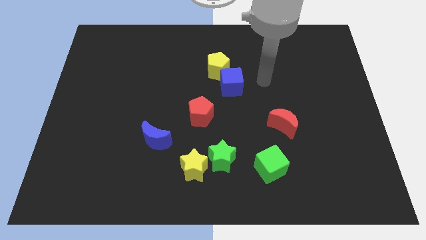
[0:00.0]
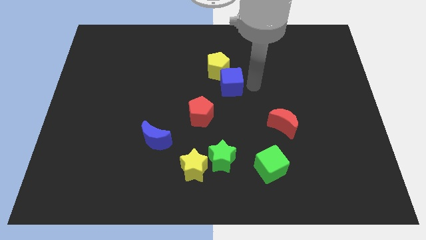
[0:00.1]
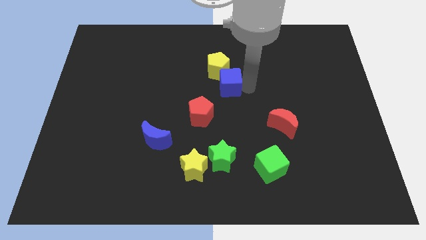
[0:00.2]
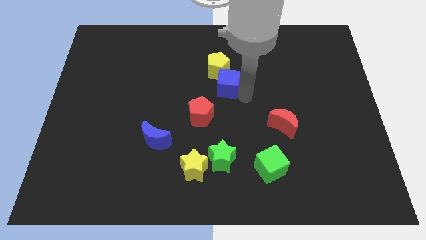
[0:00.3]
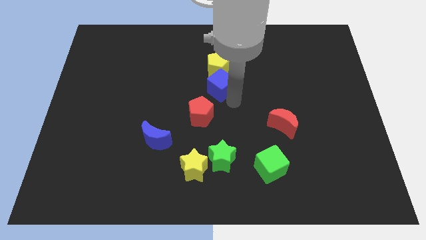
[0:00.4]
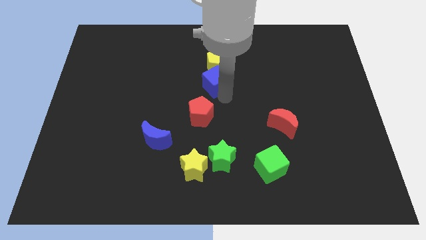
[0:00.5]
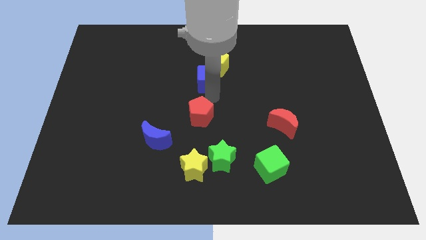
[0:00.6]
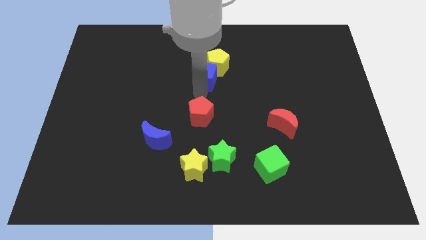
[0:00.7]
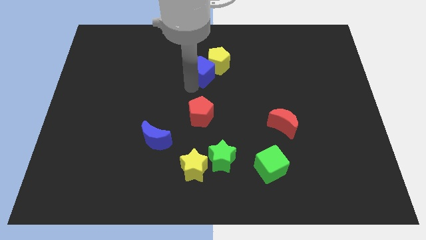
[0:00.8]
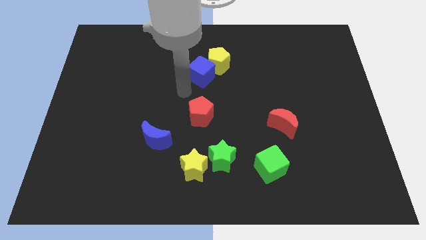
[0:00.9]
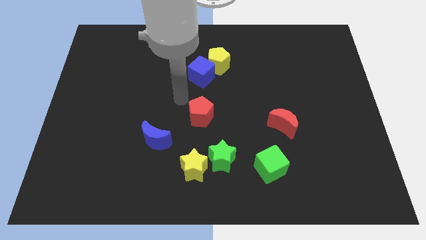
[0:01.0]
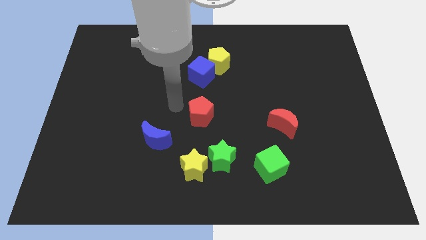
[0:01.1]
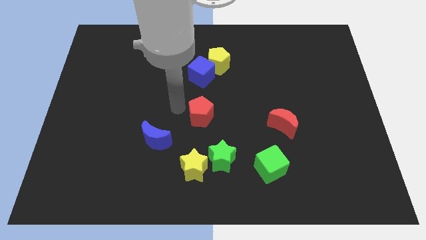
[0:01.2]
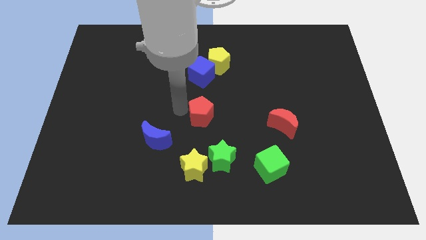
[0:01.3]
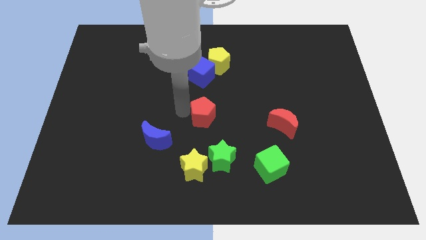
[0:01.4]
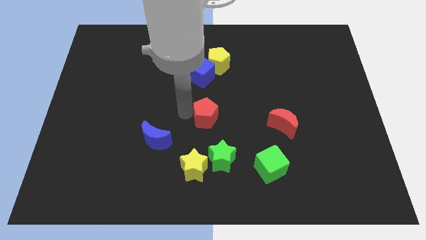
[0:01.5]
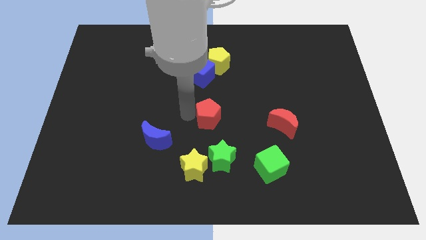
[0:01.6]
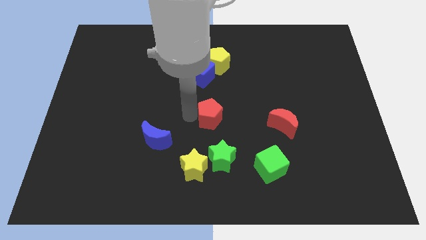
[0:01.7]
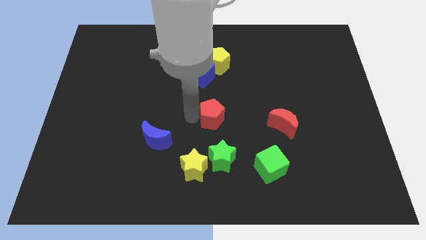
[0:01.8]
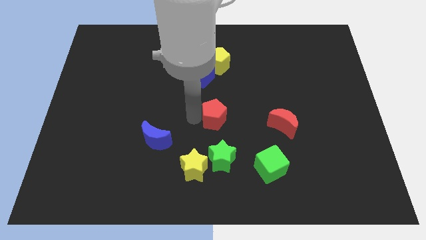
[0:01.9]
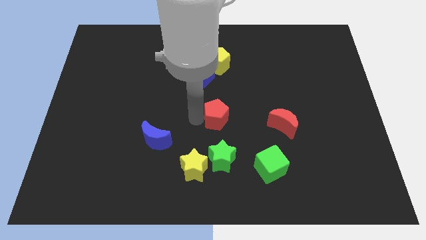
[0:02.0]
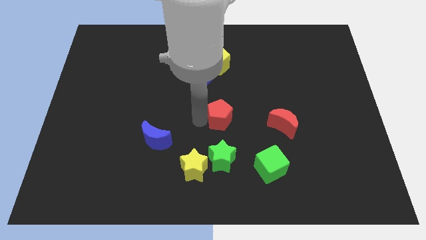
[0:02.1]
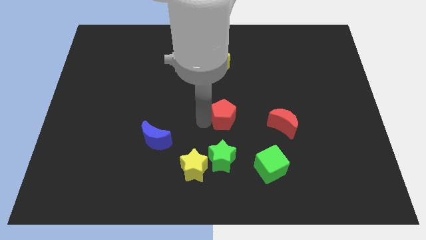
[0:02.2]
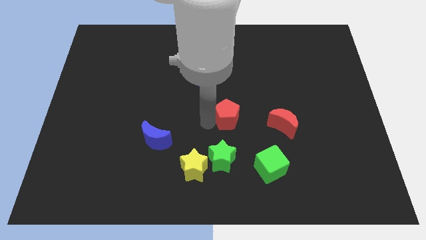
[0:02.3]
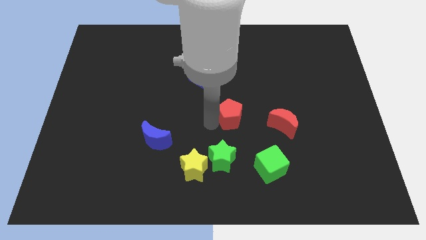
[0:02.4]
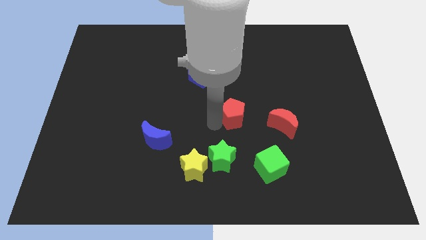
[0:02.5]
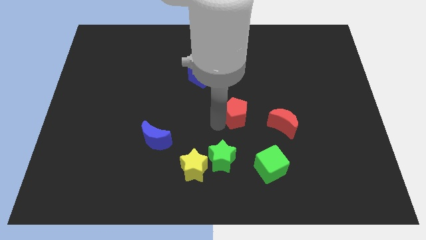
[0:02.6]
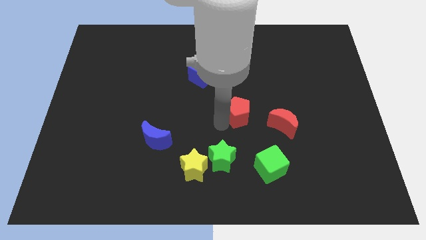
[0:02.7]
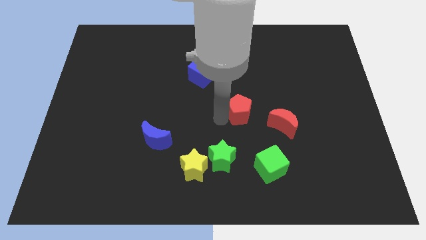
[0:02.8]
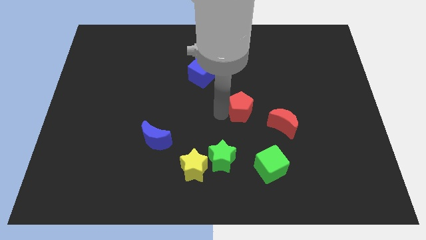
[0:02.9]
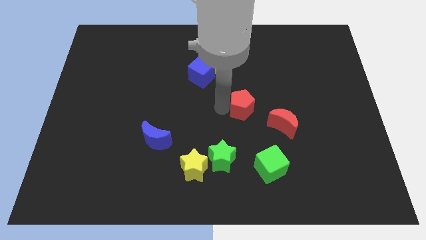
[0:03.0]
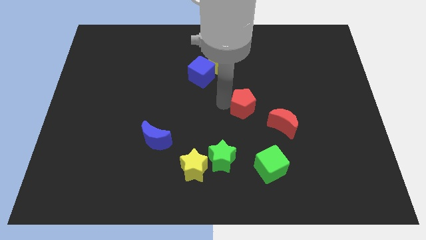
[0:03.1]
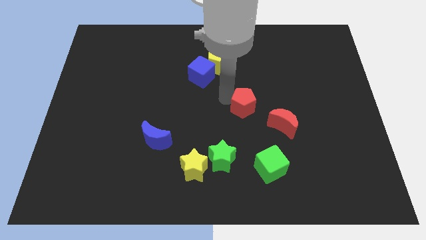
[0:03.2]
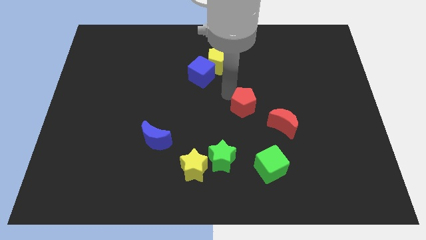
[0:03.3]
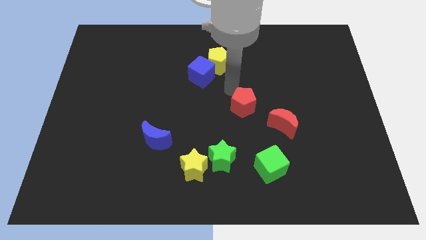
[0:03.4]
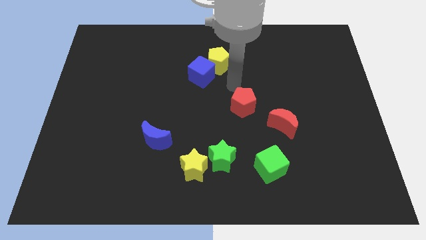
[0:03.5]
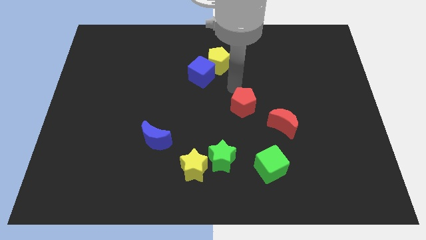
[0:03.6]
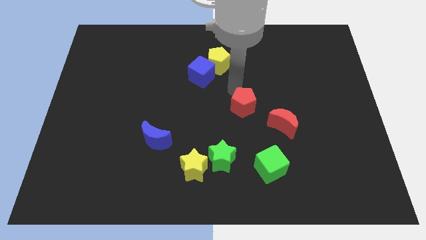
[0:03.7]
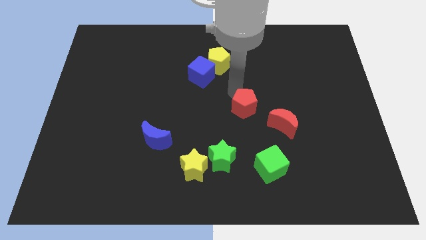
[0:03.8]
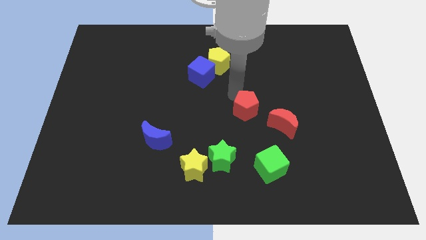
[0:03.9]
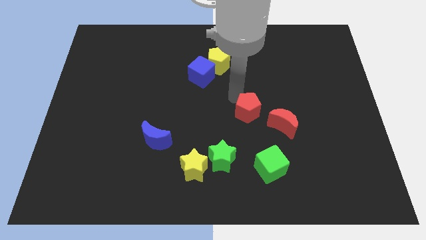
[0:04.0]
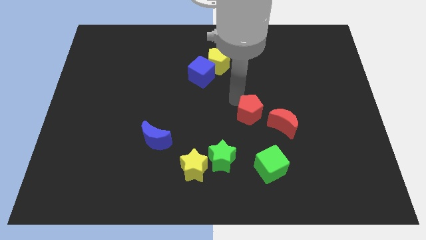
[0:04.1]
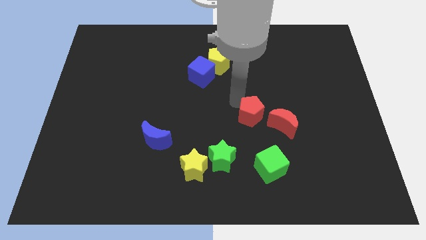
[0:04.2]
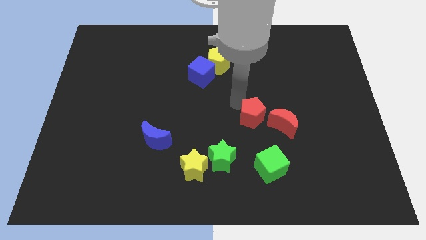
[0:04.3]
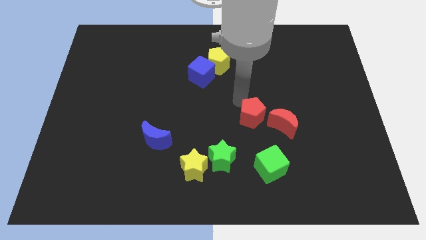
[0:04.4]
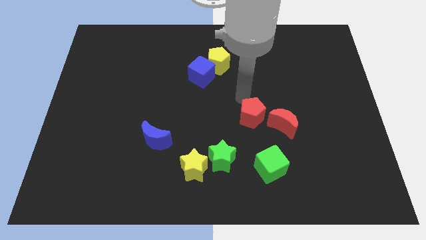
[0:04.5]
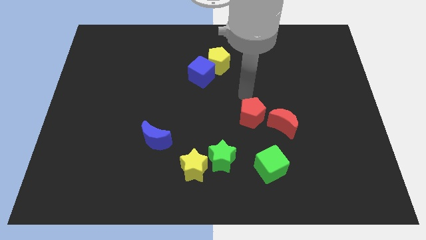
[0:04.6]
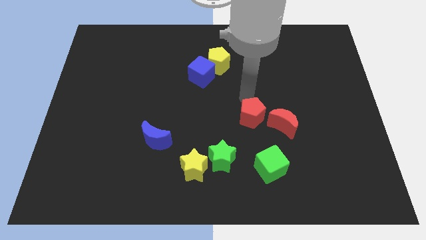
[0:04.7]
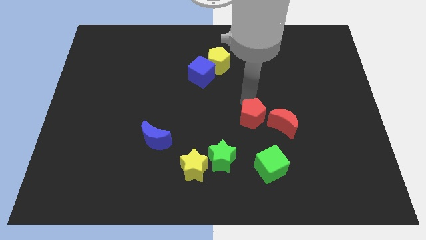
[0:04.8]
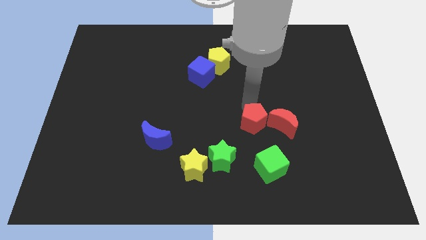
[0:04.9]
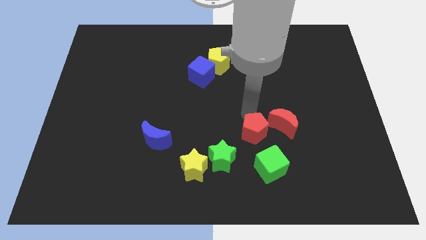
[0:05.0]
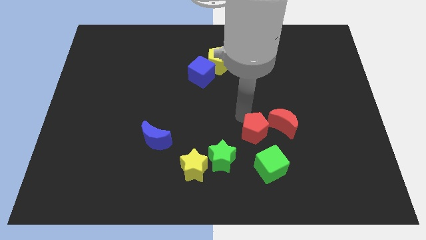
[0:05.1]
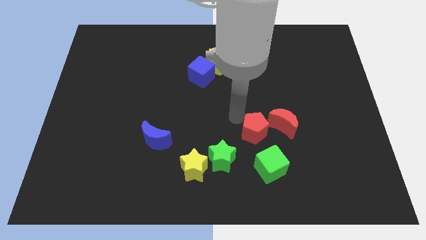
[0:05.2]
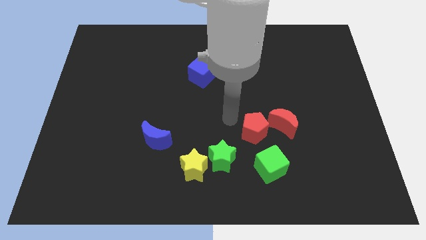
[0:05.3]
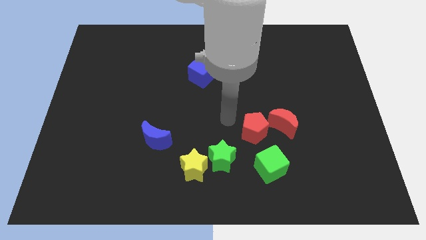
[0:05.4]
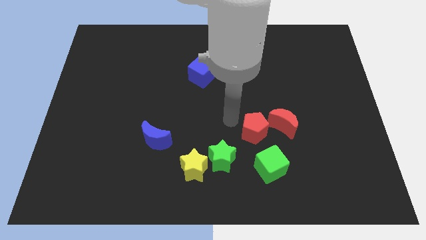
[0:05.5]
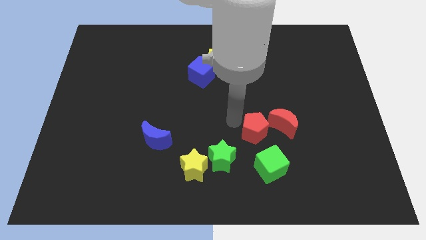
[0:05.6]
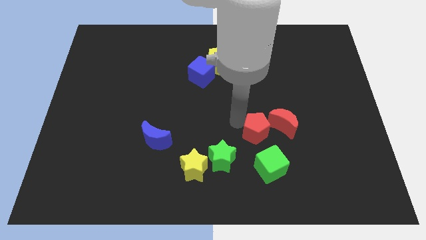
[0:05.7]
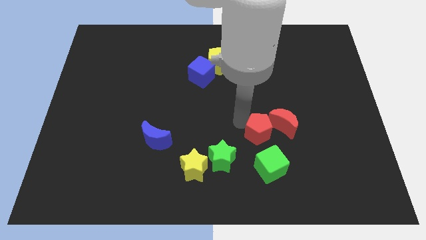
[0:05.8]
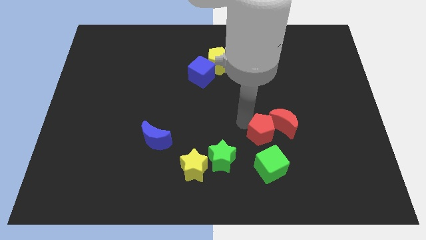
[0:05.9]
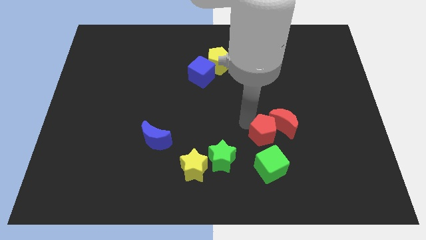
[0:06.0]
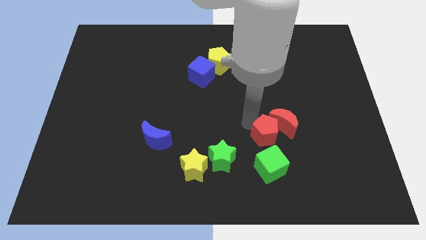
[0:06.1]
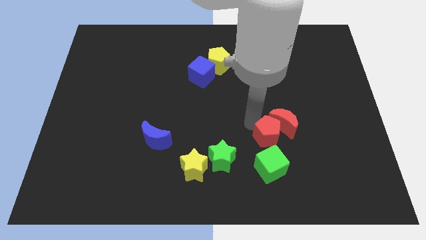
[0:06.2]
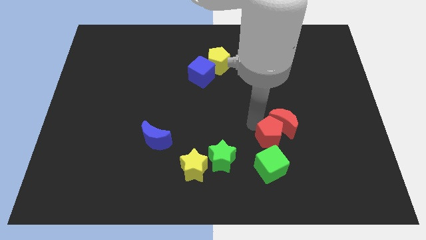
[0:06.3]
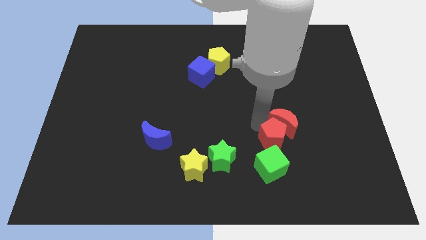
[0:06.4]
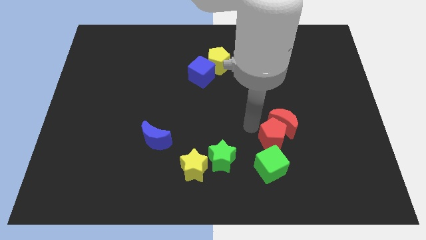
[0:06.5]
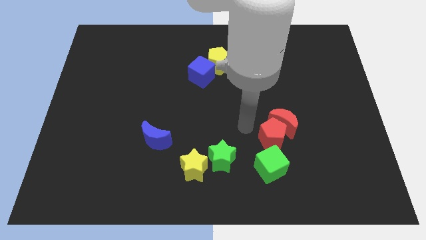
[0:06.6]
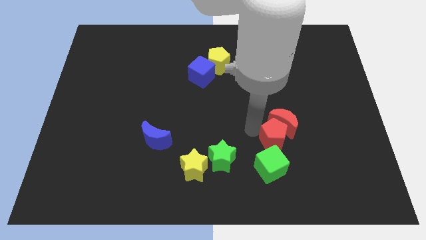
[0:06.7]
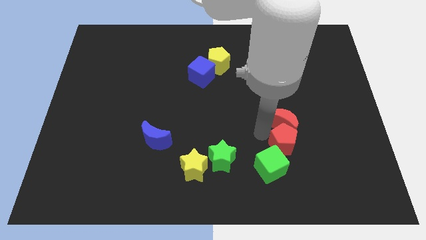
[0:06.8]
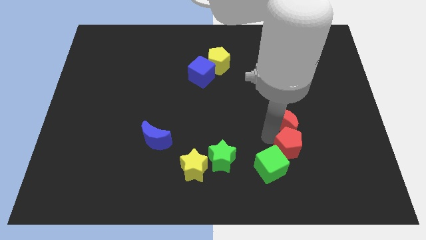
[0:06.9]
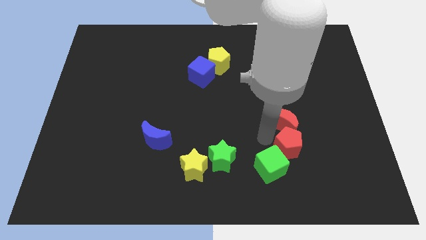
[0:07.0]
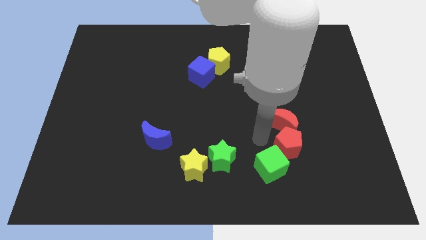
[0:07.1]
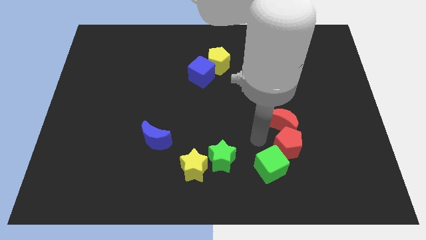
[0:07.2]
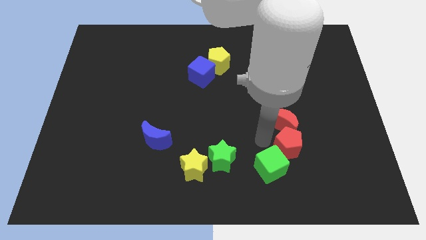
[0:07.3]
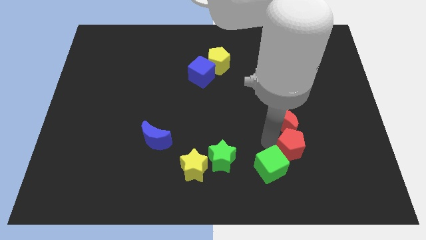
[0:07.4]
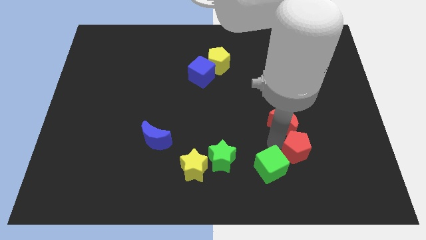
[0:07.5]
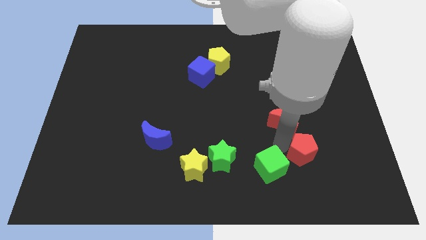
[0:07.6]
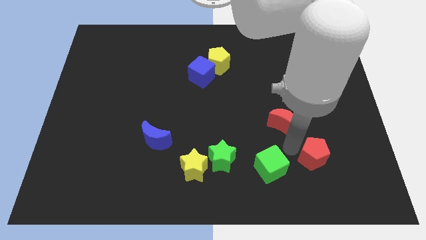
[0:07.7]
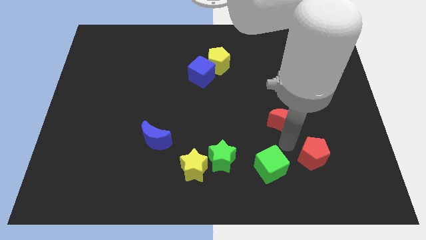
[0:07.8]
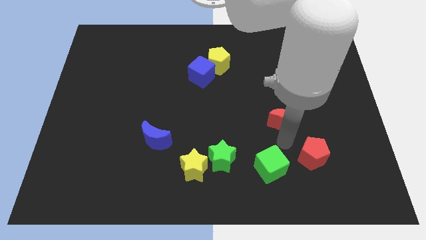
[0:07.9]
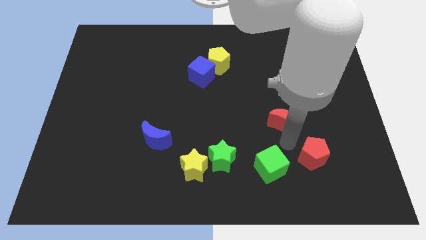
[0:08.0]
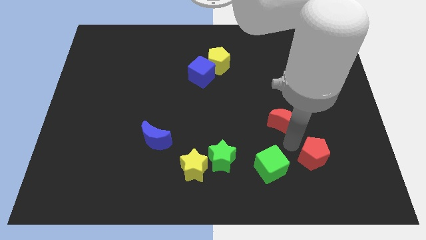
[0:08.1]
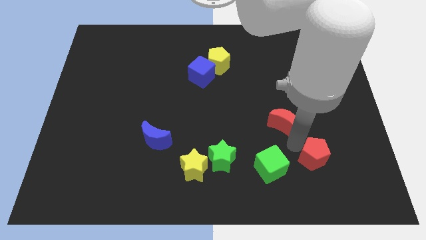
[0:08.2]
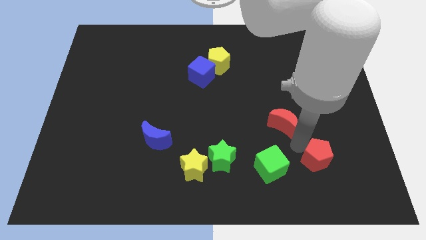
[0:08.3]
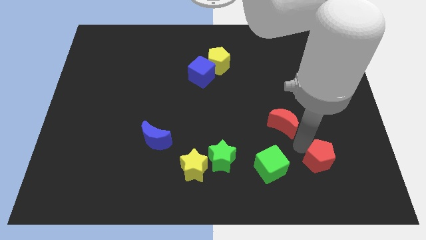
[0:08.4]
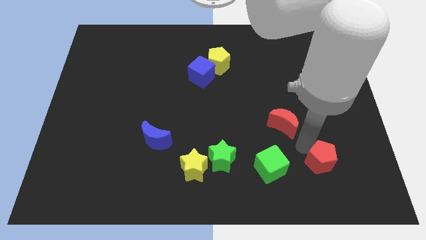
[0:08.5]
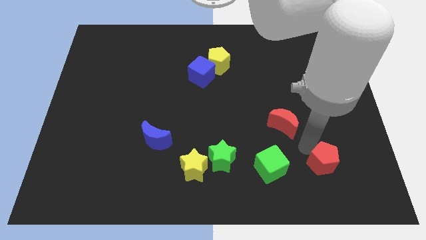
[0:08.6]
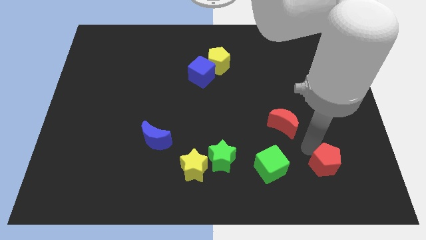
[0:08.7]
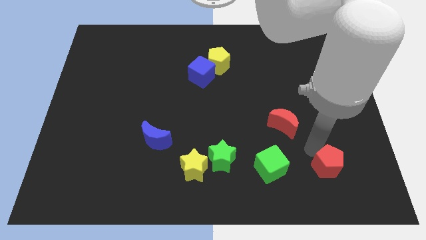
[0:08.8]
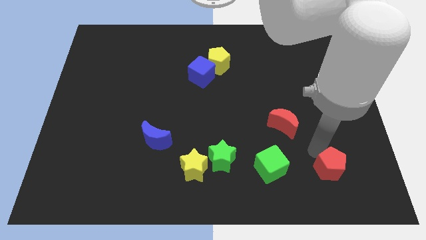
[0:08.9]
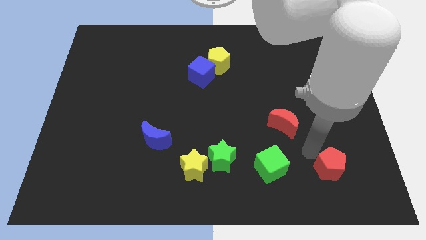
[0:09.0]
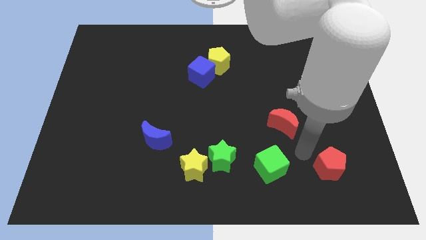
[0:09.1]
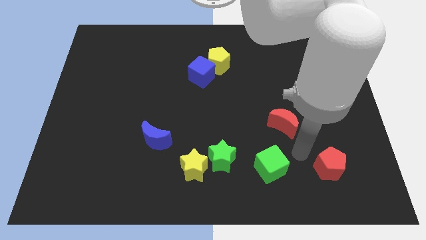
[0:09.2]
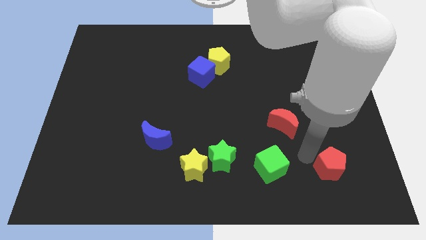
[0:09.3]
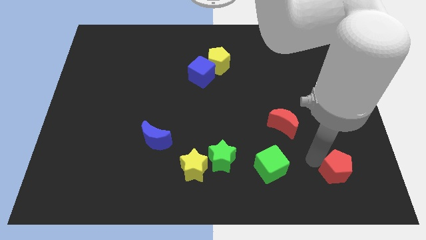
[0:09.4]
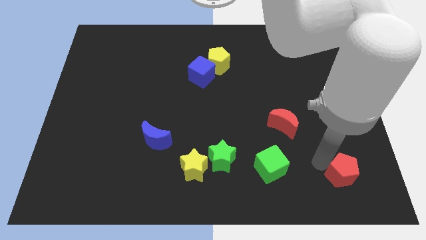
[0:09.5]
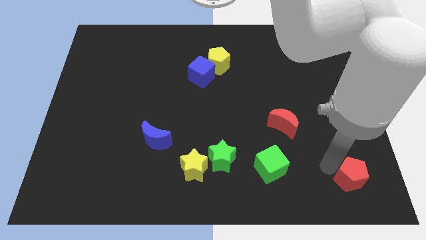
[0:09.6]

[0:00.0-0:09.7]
slide the red pentagon to the bottom right of the board
